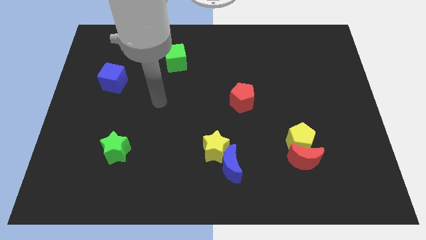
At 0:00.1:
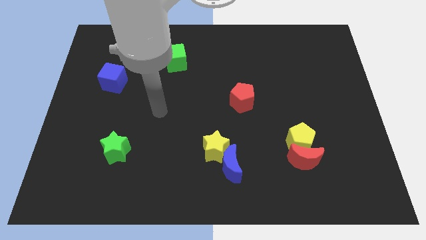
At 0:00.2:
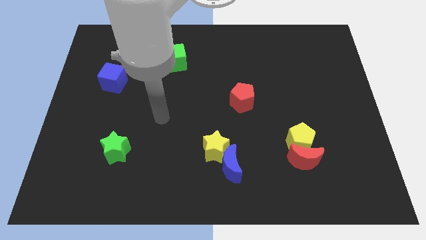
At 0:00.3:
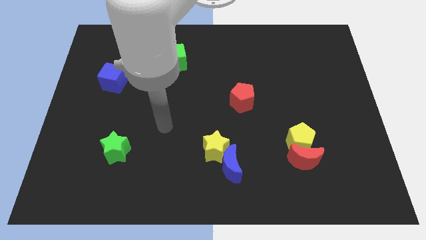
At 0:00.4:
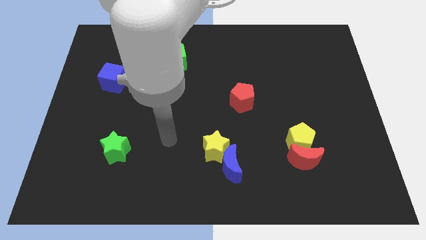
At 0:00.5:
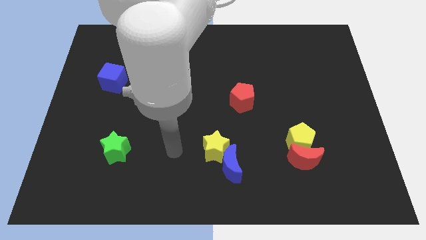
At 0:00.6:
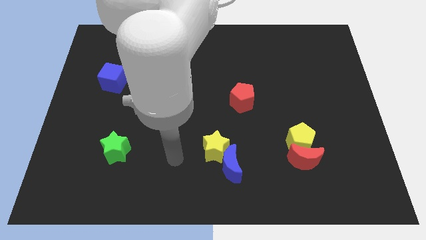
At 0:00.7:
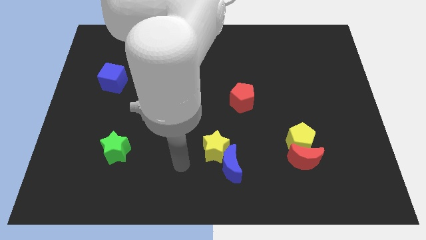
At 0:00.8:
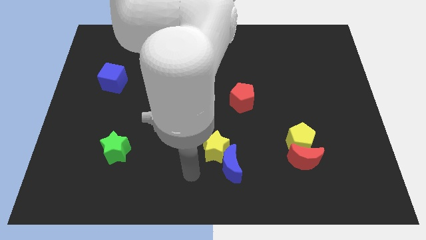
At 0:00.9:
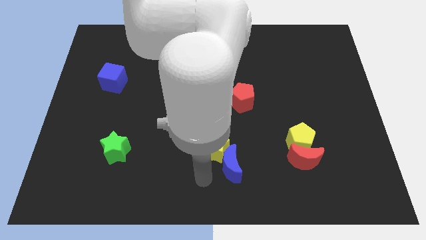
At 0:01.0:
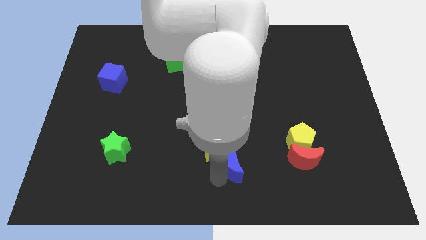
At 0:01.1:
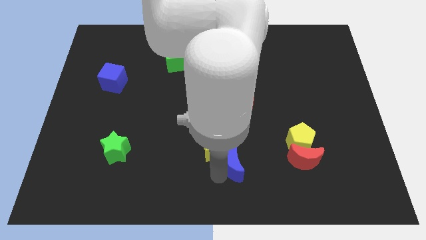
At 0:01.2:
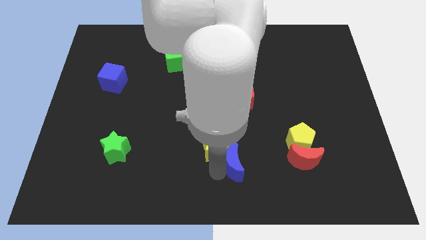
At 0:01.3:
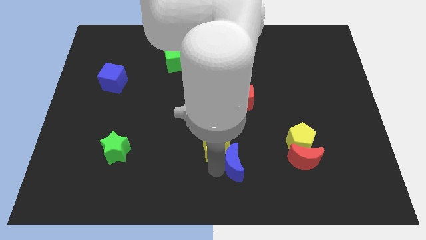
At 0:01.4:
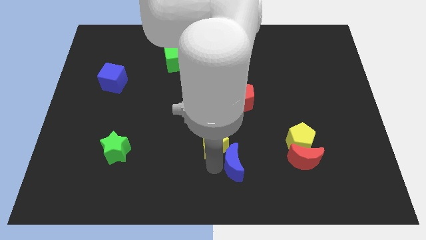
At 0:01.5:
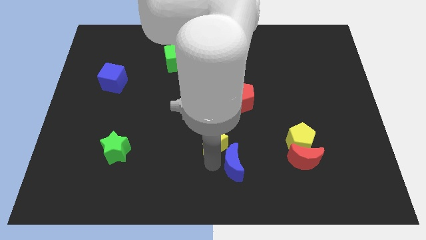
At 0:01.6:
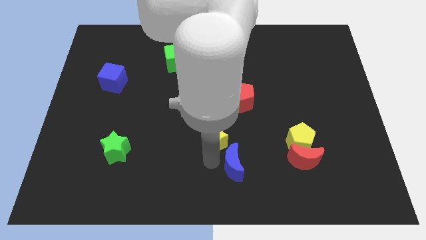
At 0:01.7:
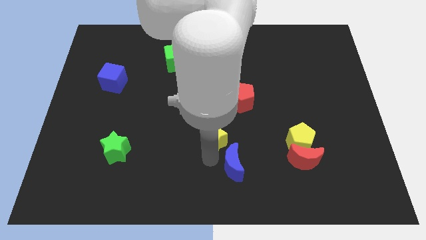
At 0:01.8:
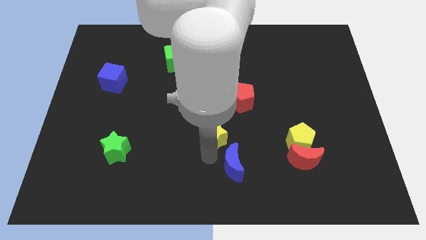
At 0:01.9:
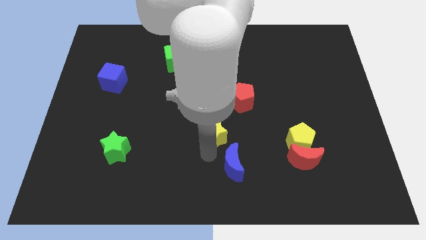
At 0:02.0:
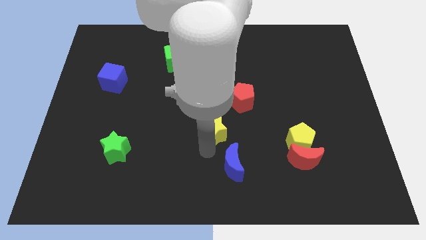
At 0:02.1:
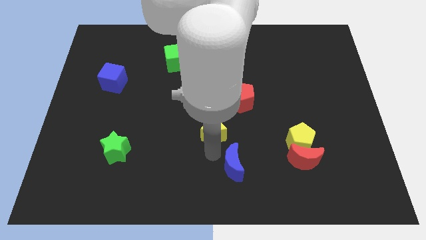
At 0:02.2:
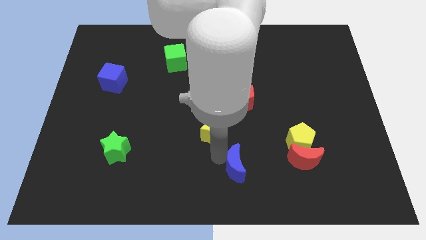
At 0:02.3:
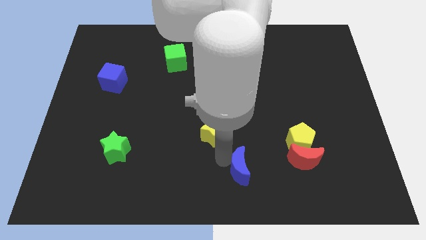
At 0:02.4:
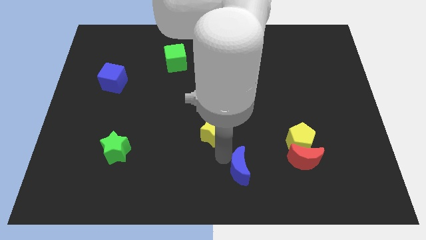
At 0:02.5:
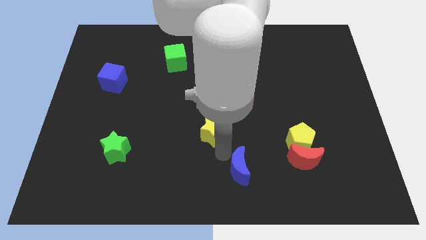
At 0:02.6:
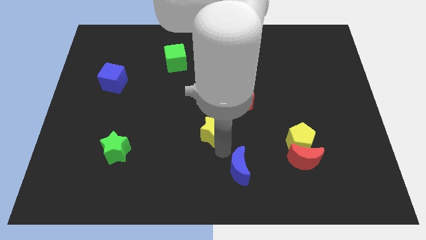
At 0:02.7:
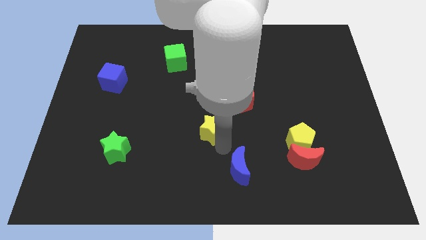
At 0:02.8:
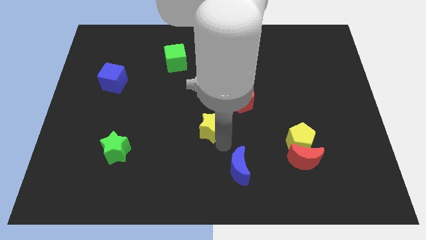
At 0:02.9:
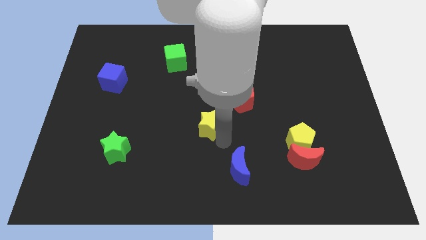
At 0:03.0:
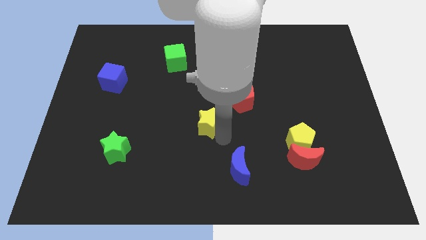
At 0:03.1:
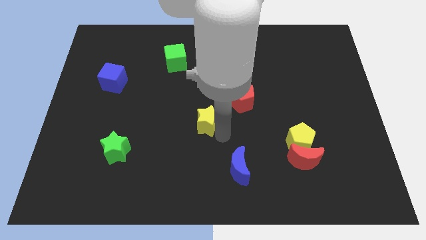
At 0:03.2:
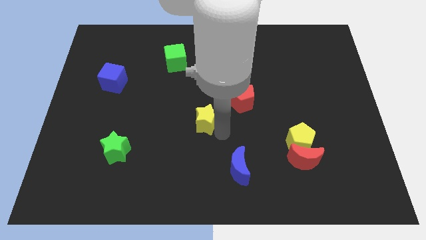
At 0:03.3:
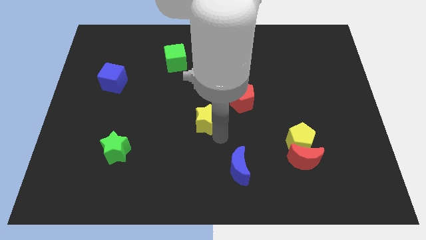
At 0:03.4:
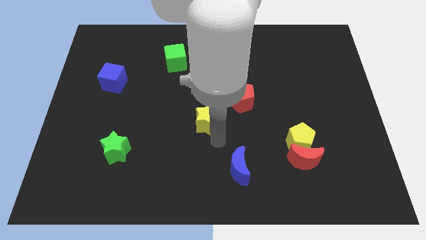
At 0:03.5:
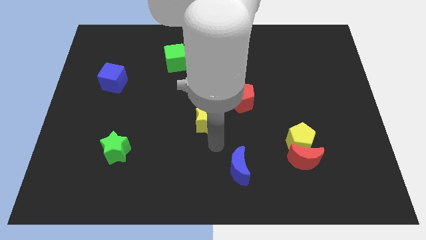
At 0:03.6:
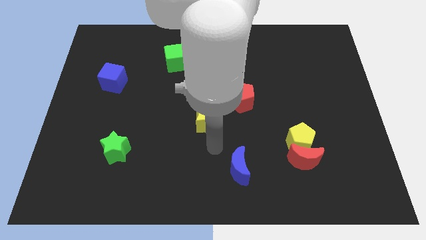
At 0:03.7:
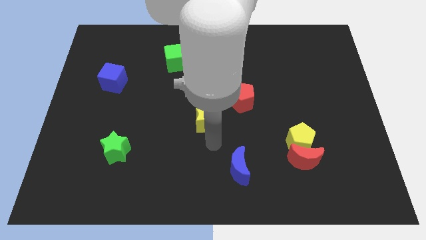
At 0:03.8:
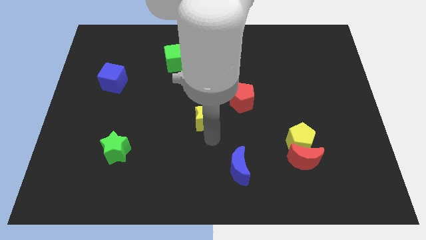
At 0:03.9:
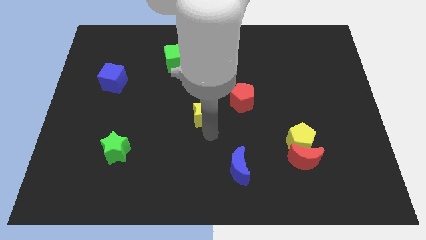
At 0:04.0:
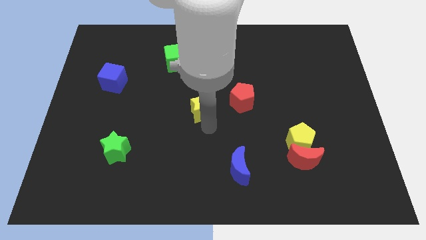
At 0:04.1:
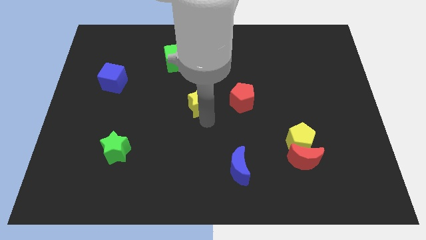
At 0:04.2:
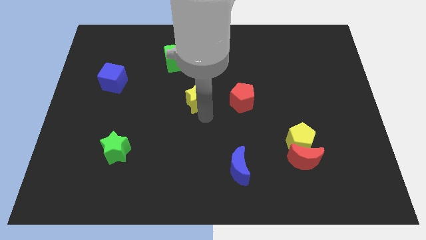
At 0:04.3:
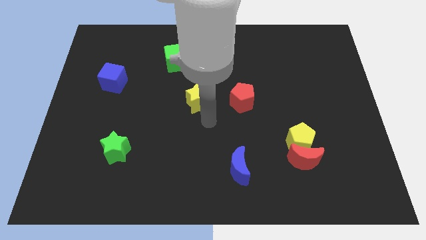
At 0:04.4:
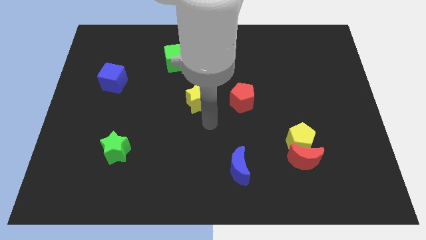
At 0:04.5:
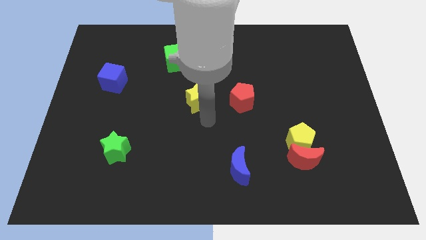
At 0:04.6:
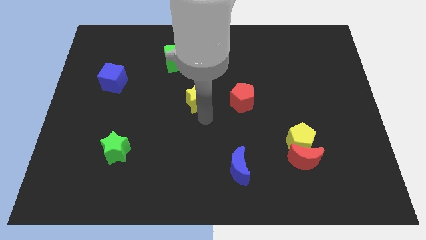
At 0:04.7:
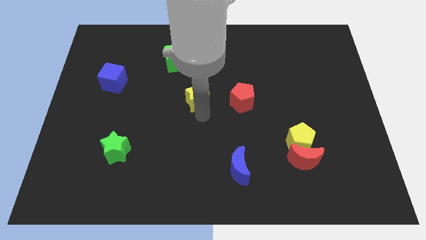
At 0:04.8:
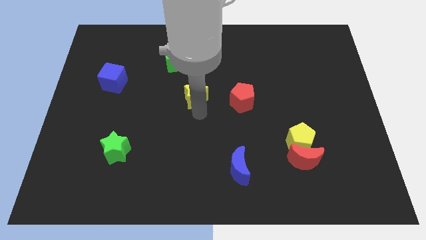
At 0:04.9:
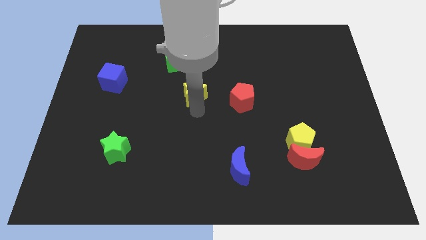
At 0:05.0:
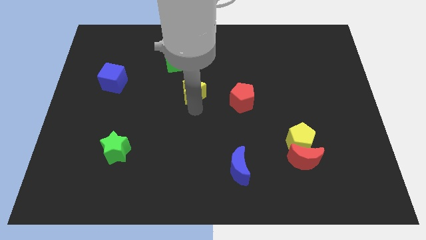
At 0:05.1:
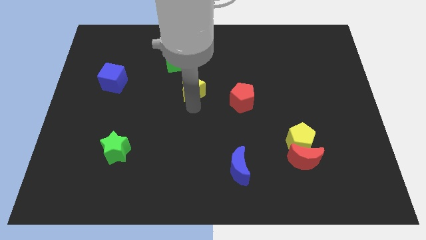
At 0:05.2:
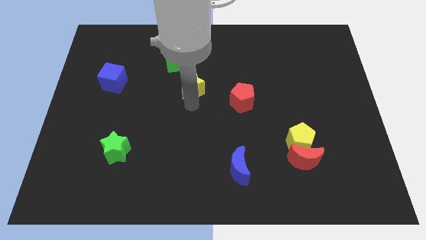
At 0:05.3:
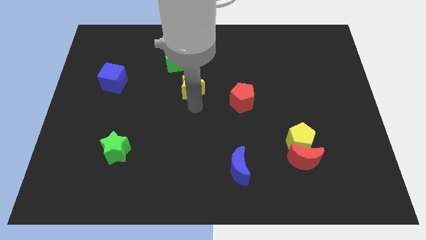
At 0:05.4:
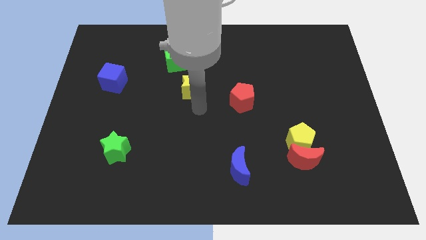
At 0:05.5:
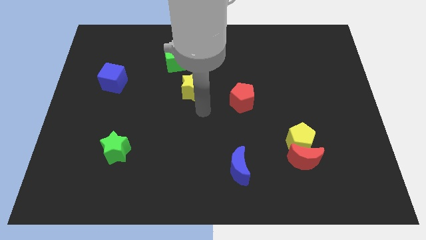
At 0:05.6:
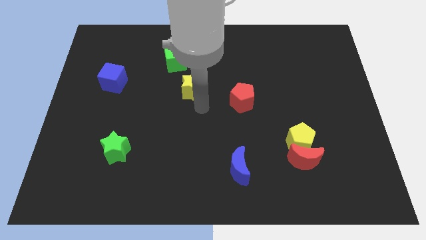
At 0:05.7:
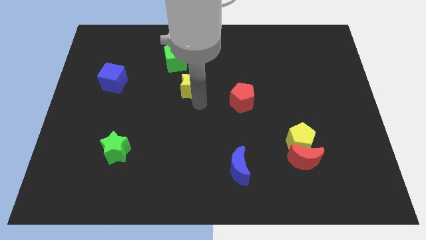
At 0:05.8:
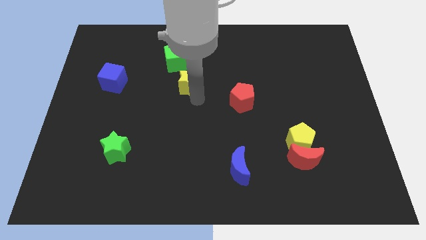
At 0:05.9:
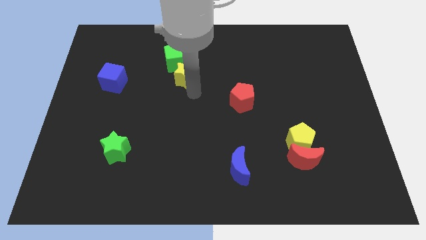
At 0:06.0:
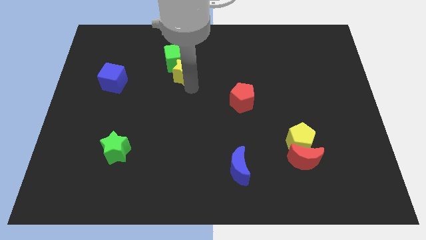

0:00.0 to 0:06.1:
put the yellow star close to the green cube

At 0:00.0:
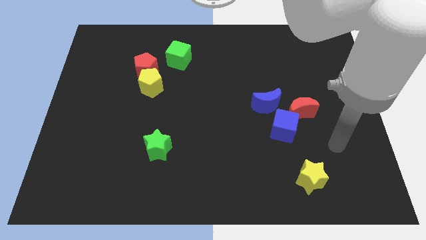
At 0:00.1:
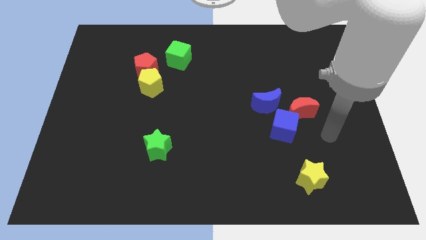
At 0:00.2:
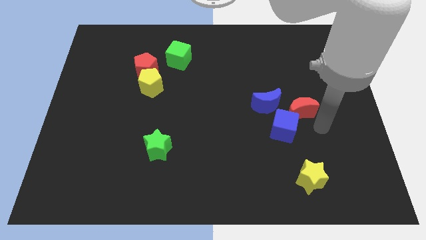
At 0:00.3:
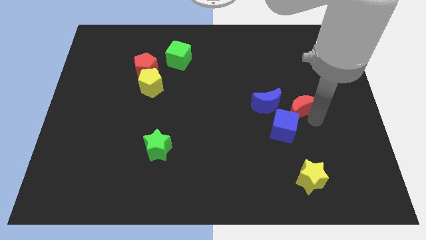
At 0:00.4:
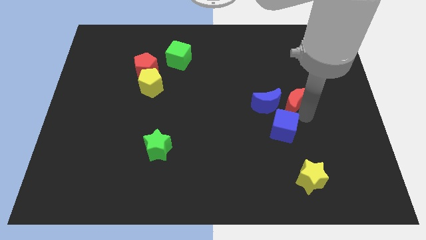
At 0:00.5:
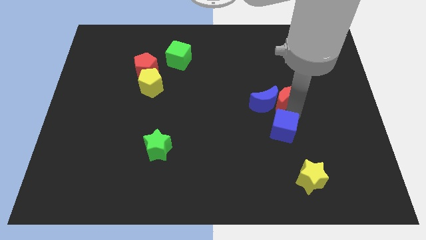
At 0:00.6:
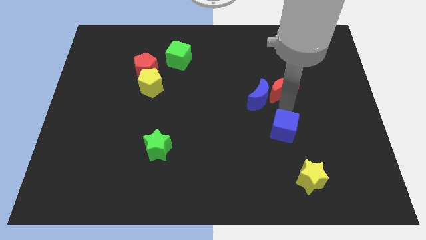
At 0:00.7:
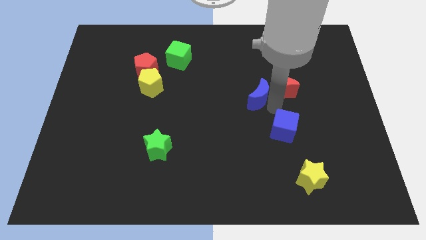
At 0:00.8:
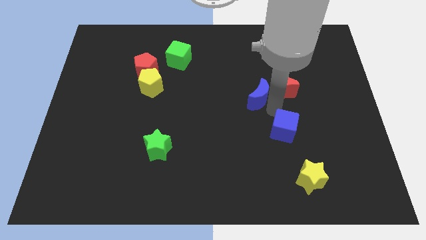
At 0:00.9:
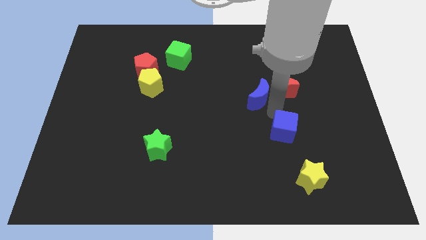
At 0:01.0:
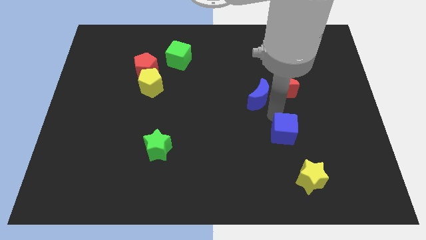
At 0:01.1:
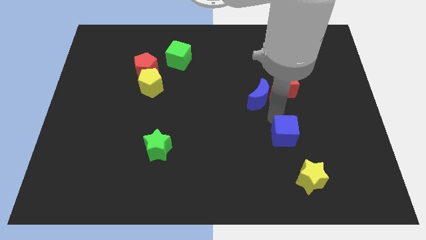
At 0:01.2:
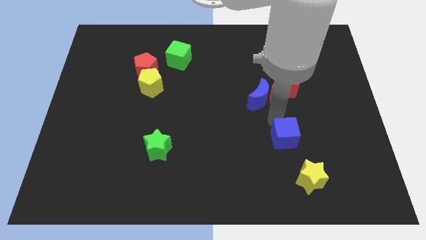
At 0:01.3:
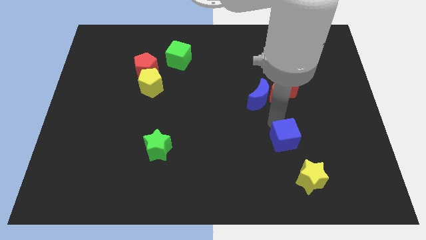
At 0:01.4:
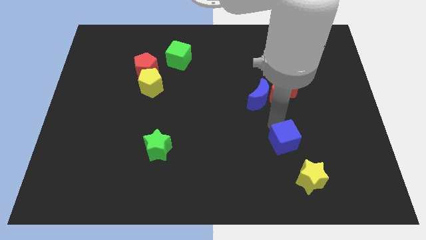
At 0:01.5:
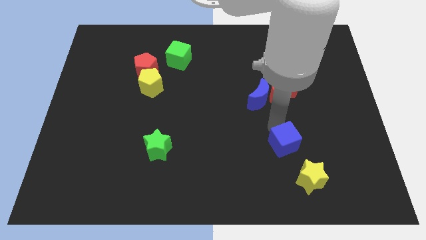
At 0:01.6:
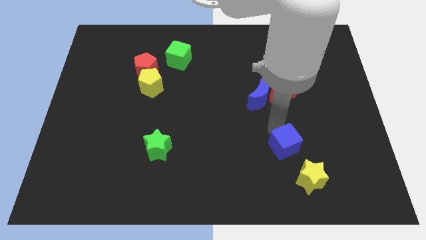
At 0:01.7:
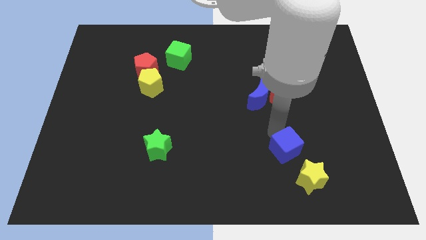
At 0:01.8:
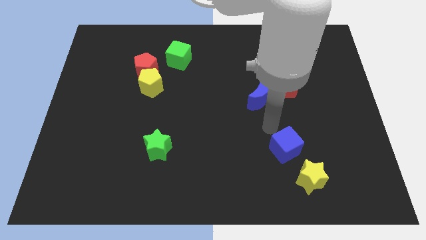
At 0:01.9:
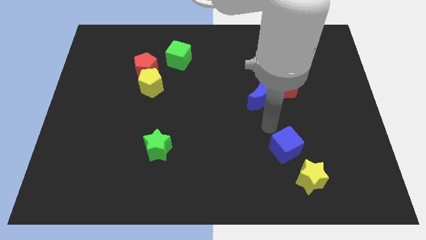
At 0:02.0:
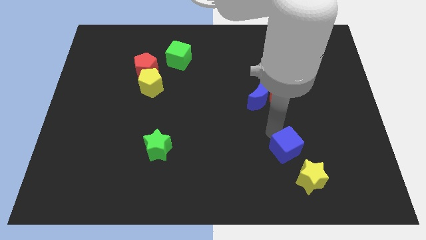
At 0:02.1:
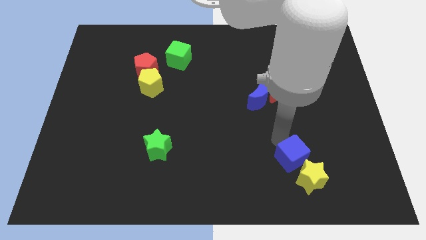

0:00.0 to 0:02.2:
push the blue cube next to the yellow star
